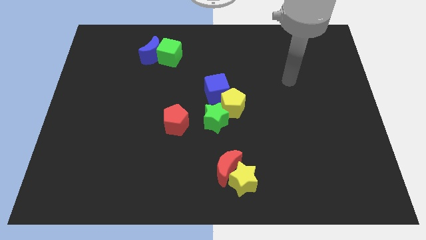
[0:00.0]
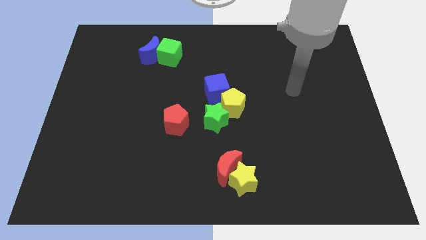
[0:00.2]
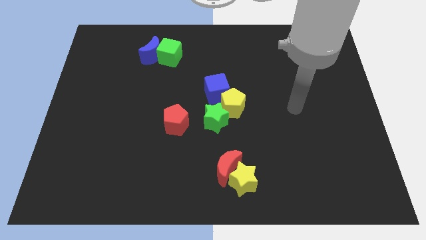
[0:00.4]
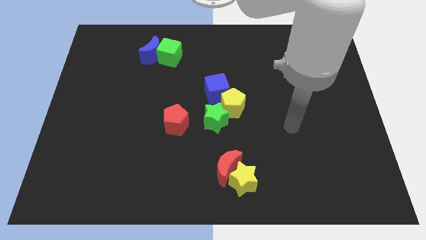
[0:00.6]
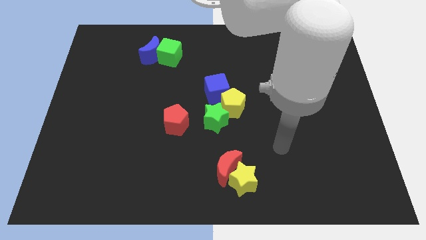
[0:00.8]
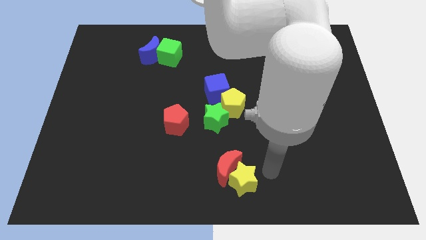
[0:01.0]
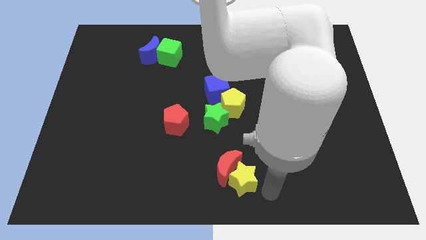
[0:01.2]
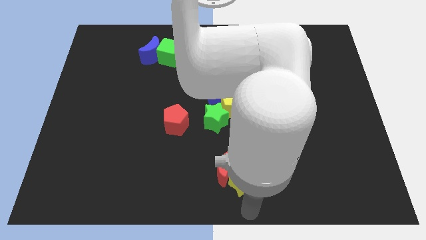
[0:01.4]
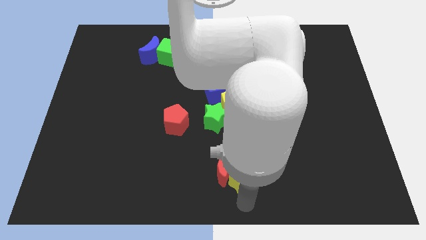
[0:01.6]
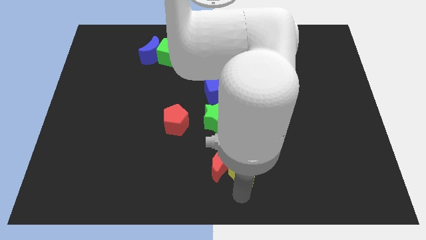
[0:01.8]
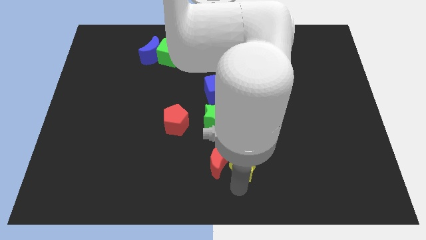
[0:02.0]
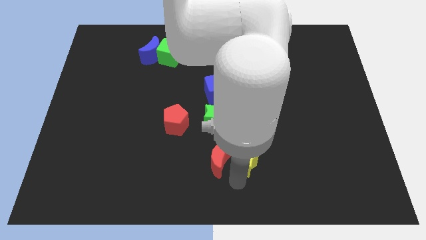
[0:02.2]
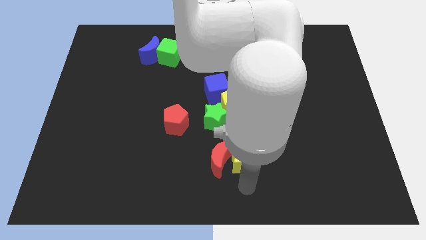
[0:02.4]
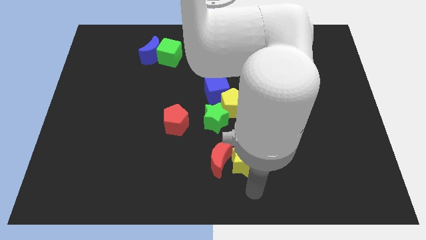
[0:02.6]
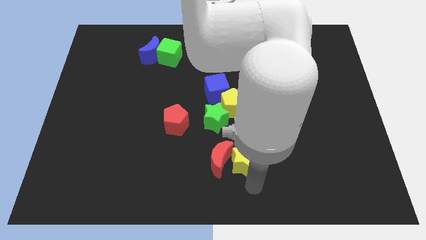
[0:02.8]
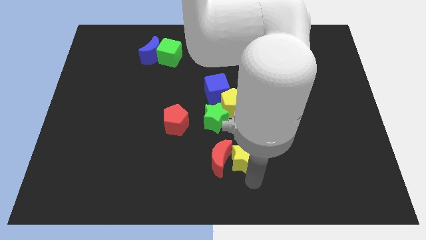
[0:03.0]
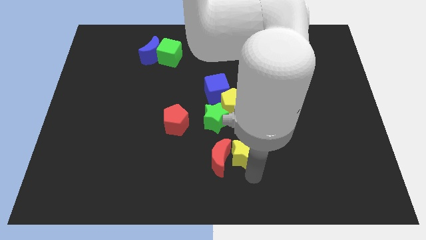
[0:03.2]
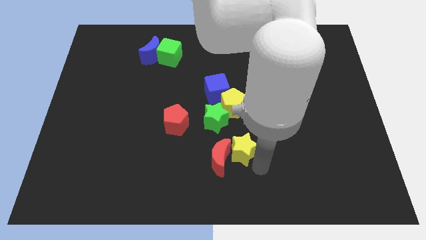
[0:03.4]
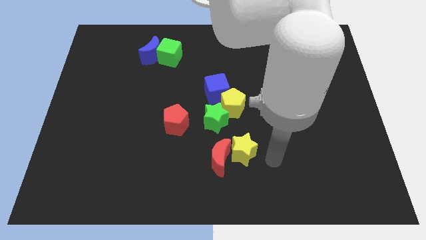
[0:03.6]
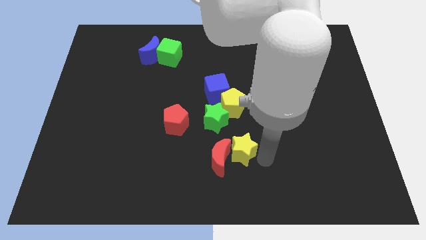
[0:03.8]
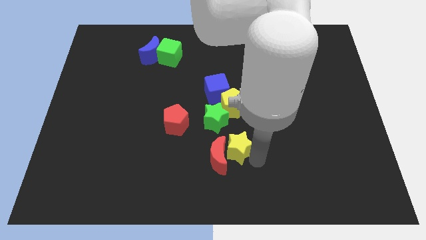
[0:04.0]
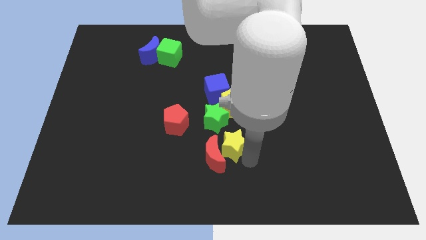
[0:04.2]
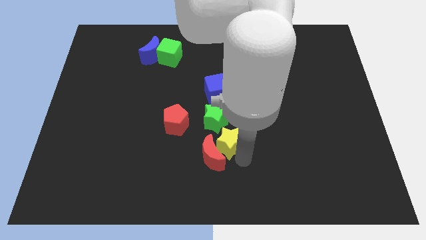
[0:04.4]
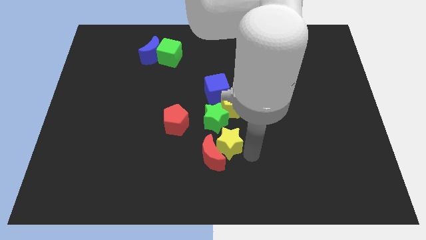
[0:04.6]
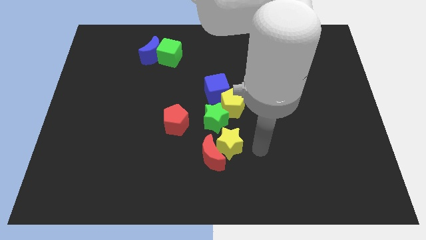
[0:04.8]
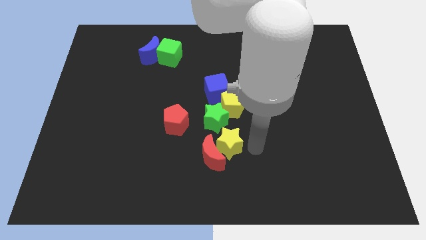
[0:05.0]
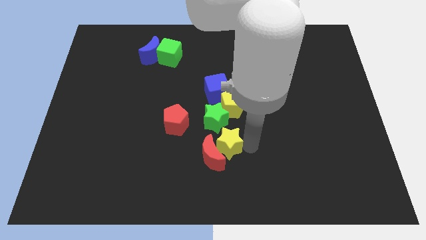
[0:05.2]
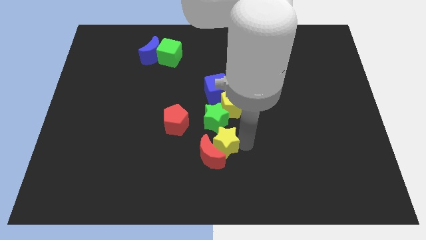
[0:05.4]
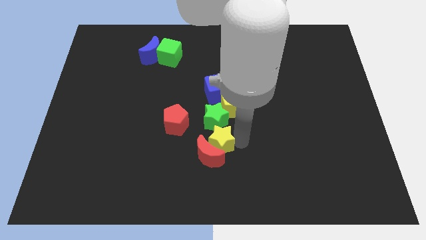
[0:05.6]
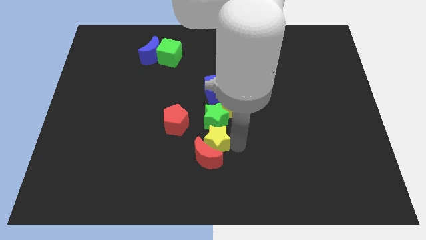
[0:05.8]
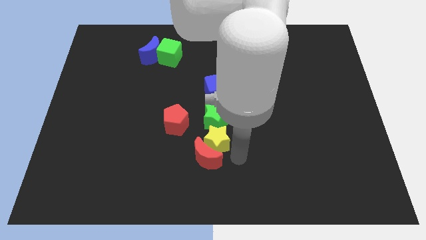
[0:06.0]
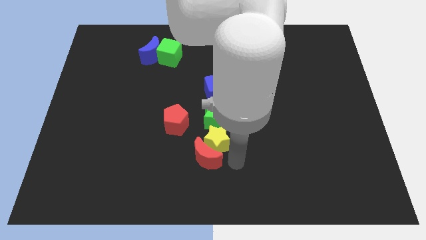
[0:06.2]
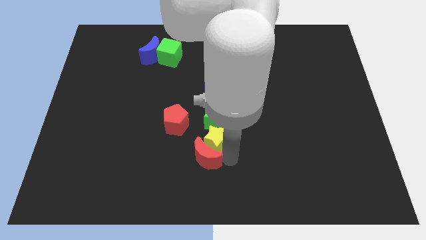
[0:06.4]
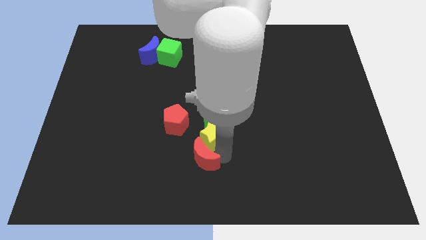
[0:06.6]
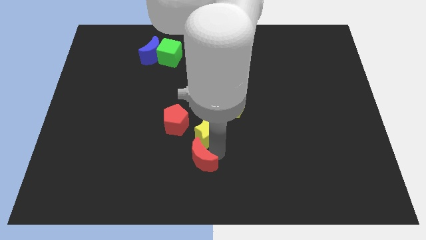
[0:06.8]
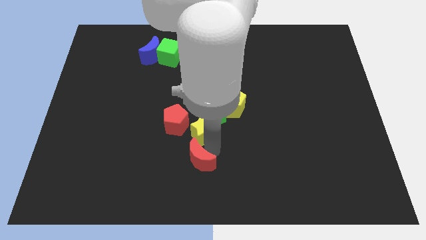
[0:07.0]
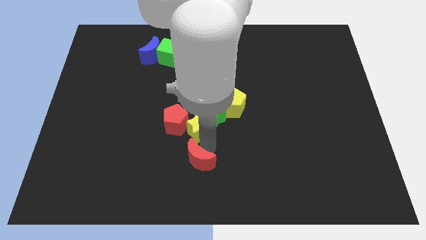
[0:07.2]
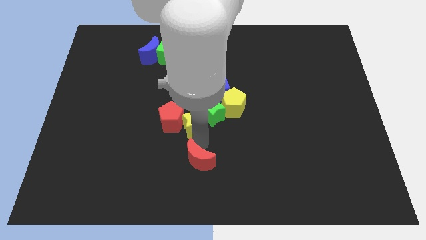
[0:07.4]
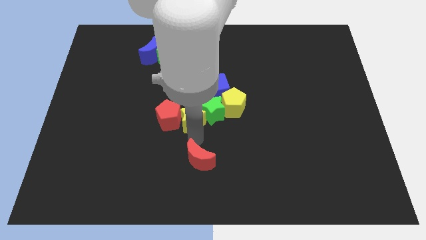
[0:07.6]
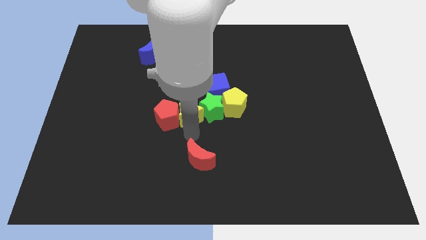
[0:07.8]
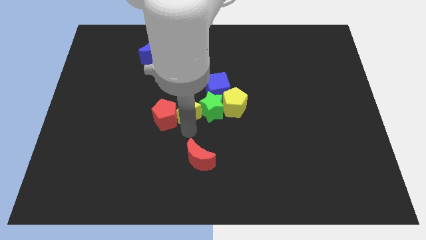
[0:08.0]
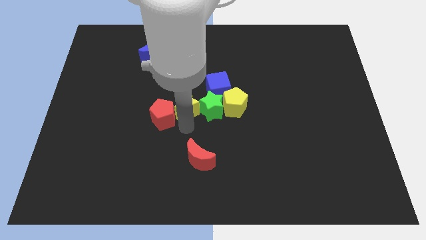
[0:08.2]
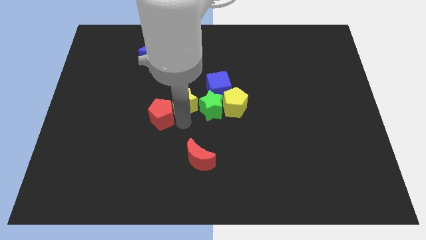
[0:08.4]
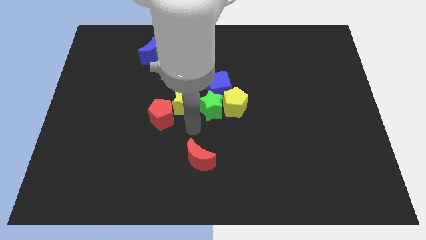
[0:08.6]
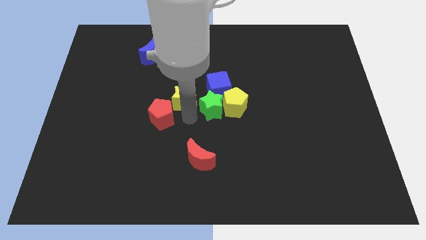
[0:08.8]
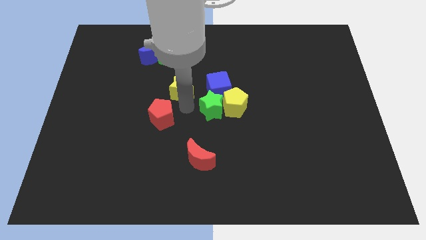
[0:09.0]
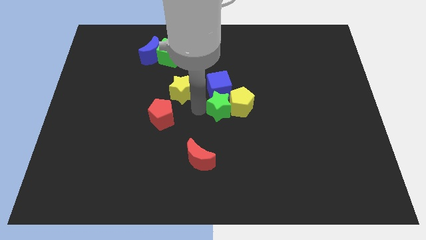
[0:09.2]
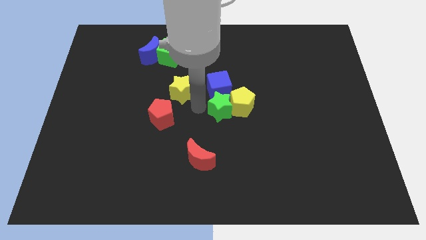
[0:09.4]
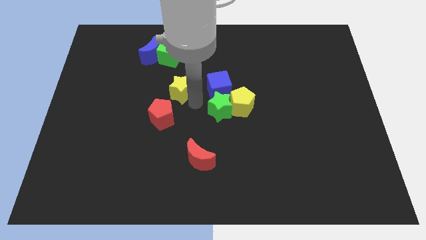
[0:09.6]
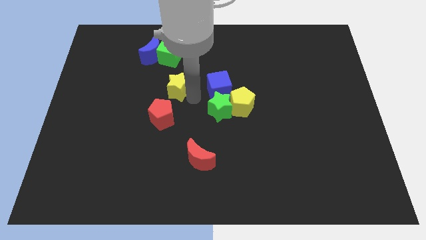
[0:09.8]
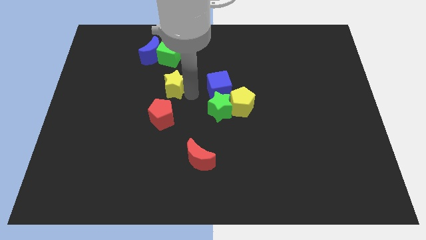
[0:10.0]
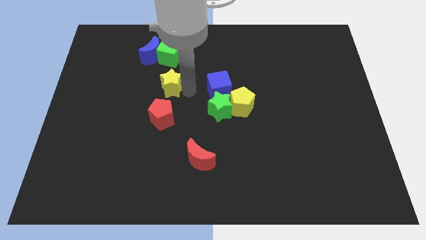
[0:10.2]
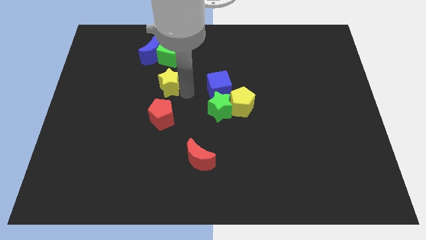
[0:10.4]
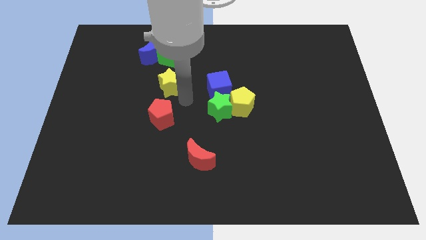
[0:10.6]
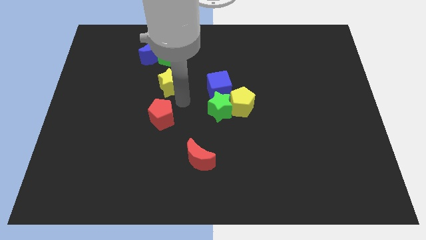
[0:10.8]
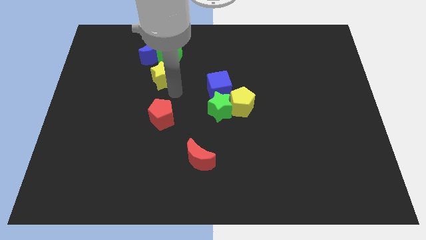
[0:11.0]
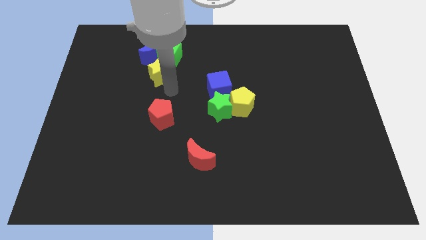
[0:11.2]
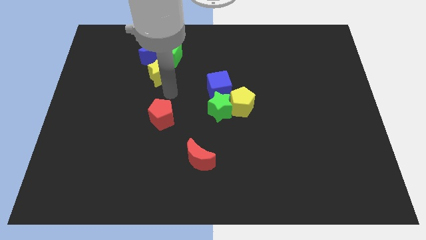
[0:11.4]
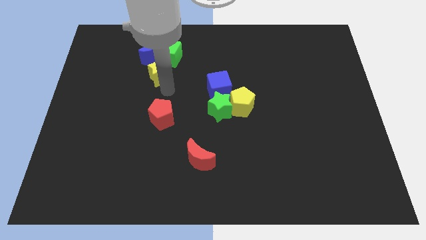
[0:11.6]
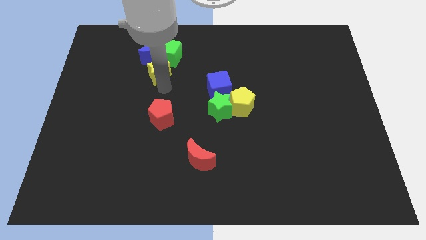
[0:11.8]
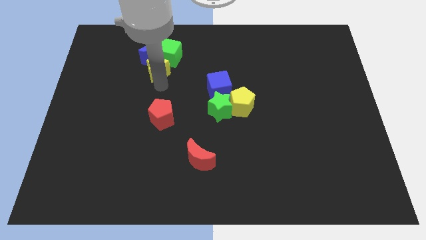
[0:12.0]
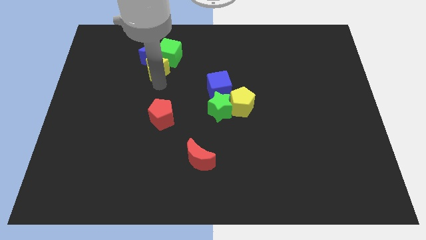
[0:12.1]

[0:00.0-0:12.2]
put the yellow star to the blue moon

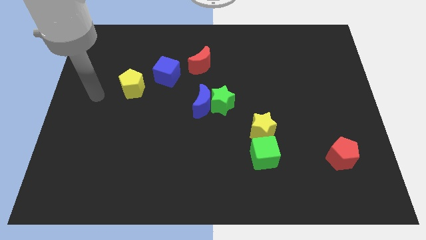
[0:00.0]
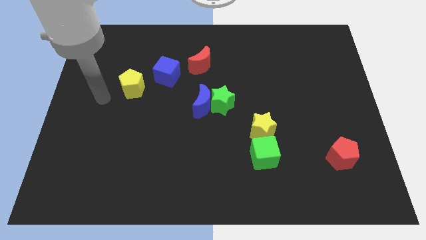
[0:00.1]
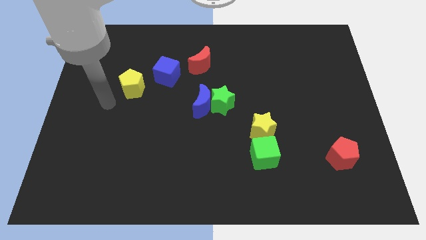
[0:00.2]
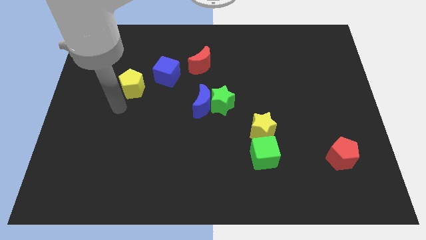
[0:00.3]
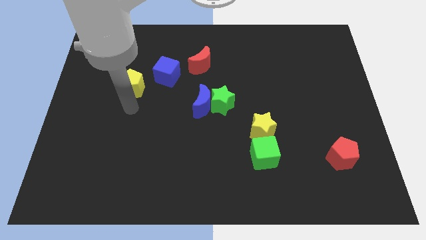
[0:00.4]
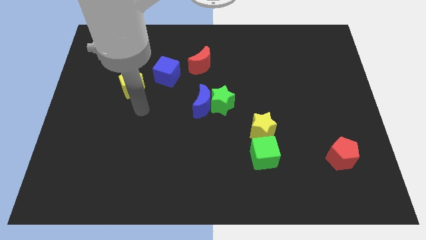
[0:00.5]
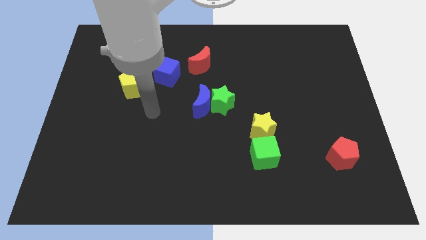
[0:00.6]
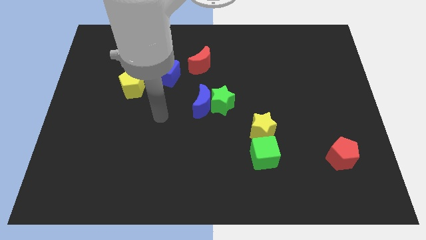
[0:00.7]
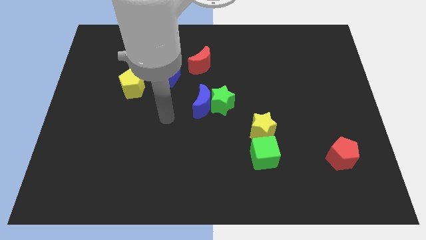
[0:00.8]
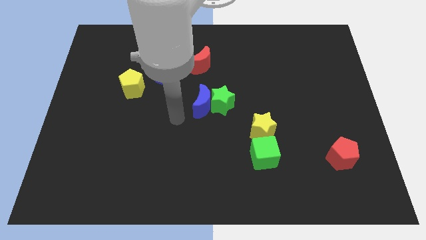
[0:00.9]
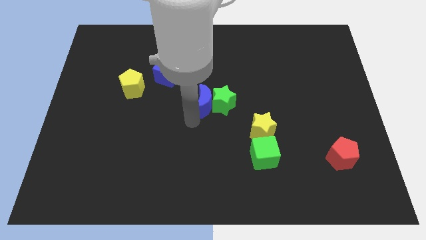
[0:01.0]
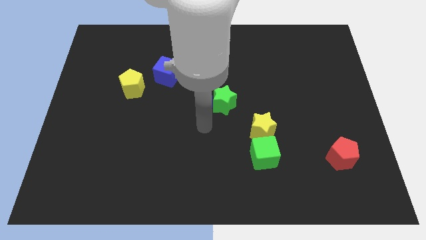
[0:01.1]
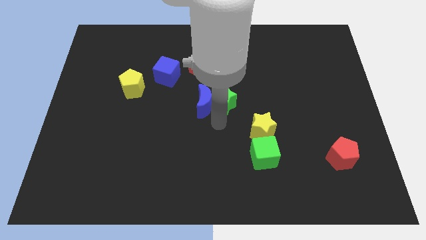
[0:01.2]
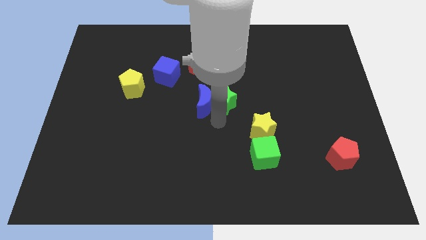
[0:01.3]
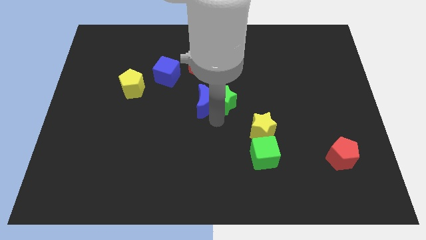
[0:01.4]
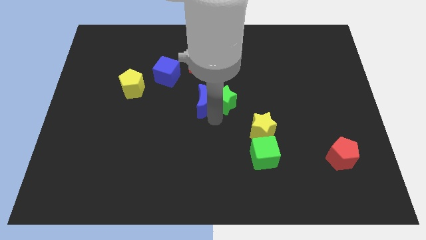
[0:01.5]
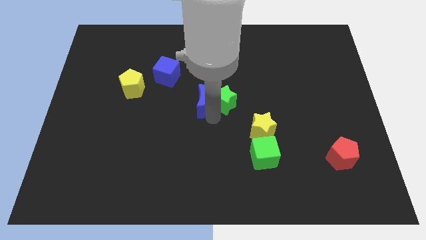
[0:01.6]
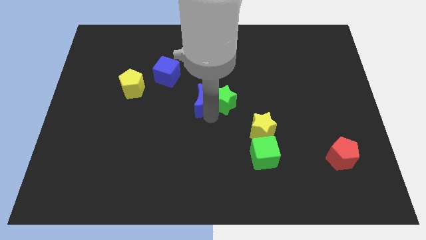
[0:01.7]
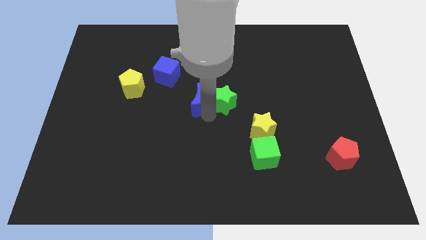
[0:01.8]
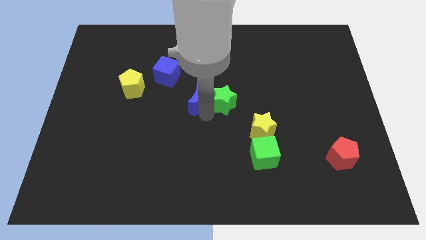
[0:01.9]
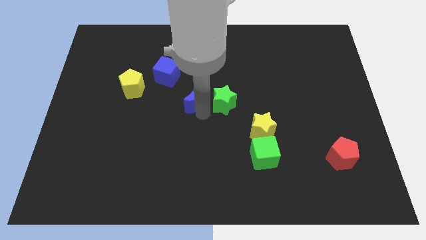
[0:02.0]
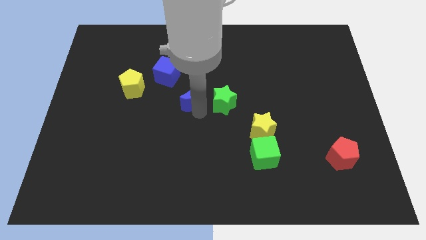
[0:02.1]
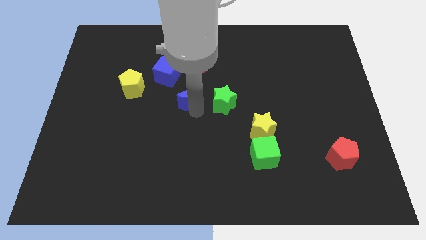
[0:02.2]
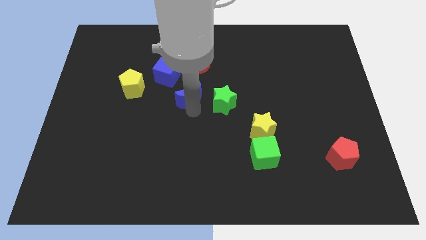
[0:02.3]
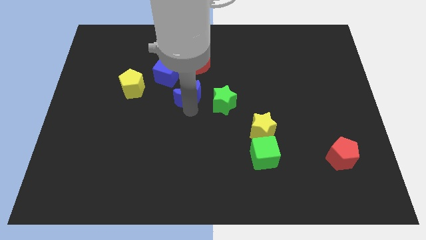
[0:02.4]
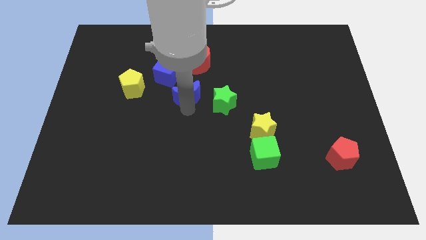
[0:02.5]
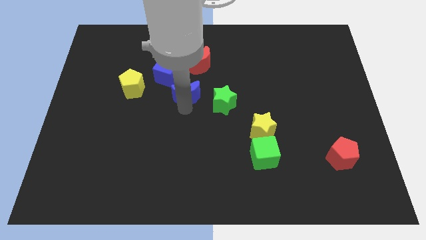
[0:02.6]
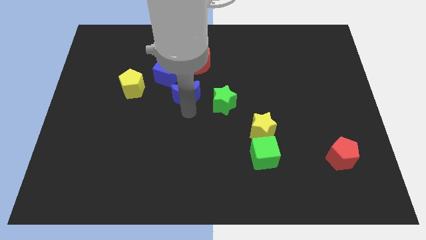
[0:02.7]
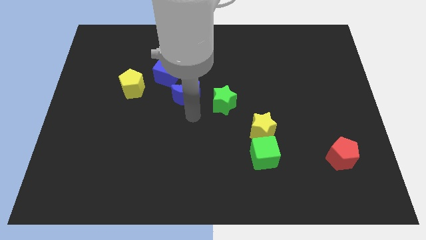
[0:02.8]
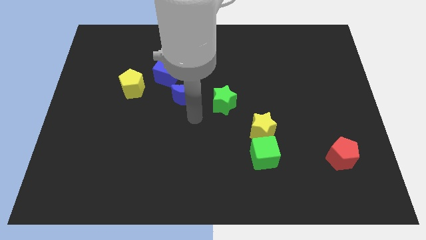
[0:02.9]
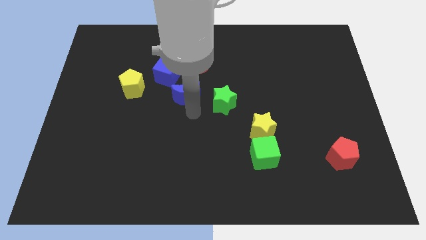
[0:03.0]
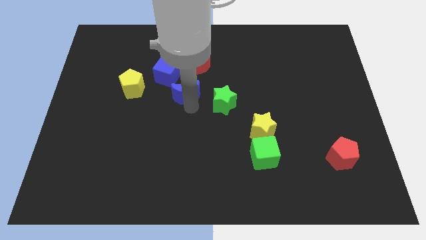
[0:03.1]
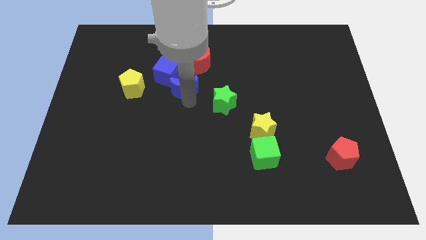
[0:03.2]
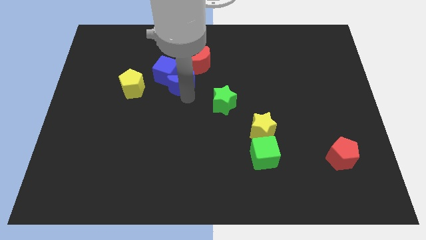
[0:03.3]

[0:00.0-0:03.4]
slide the blue moon to the blue cube
